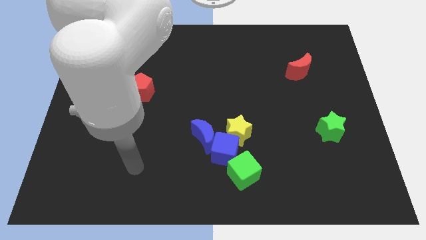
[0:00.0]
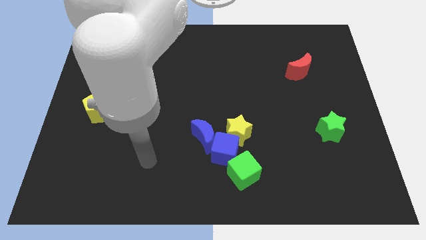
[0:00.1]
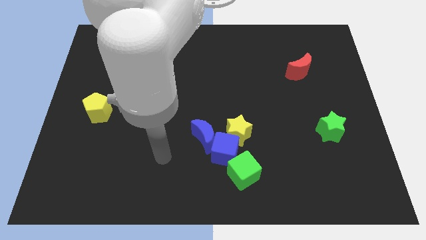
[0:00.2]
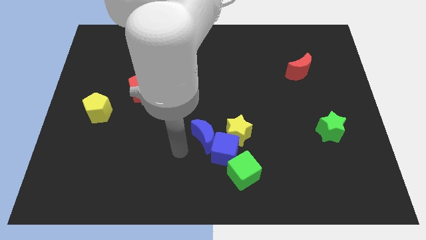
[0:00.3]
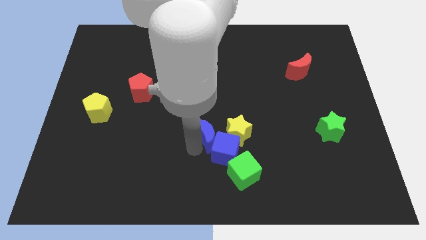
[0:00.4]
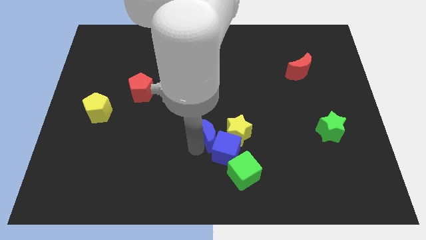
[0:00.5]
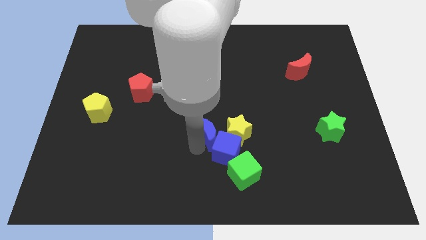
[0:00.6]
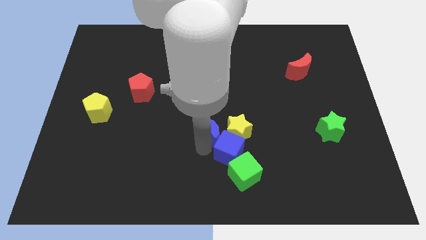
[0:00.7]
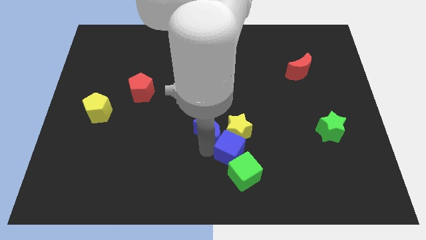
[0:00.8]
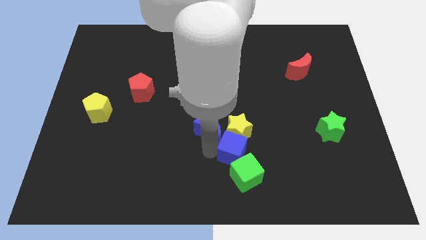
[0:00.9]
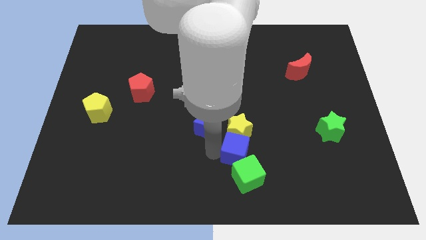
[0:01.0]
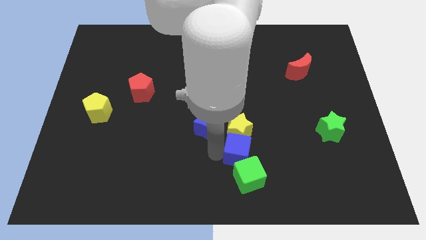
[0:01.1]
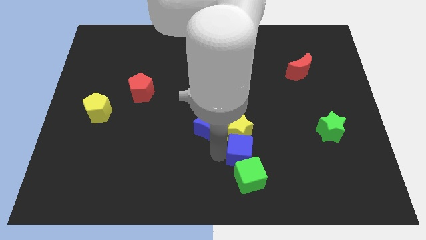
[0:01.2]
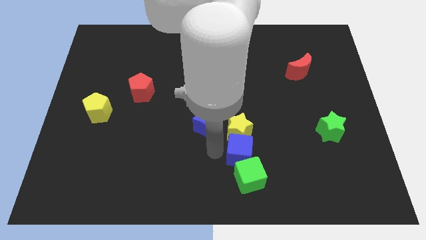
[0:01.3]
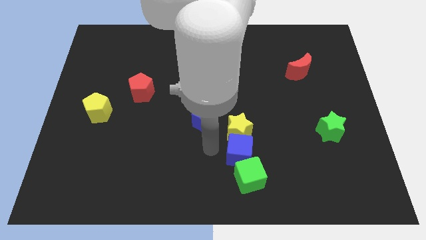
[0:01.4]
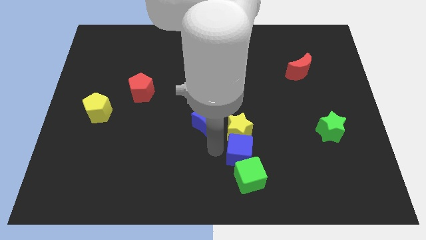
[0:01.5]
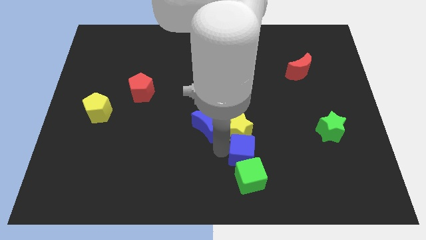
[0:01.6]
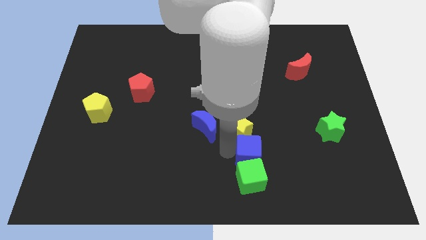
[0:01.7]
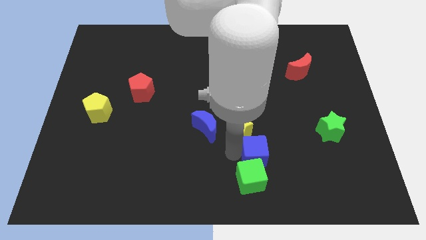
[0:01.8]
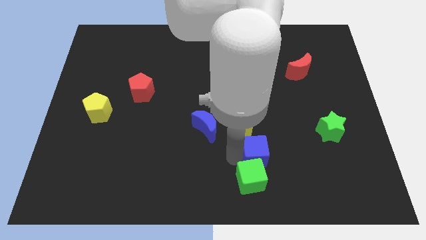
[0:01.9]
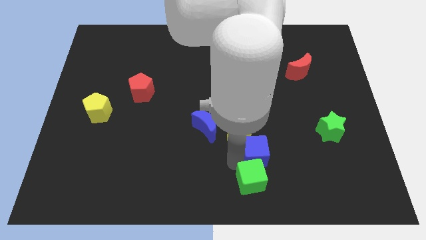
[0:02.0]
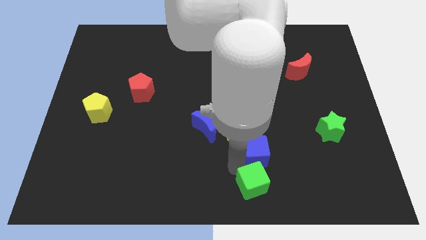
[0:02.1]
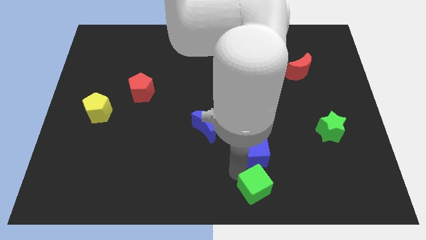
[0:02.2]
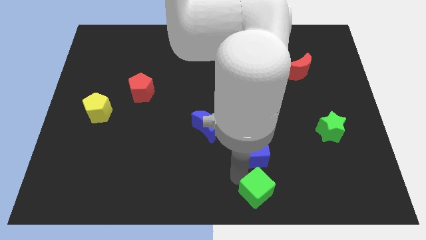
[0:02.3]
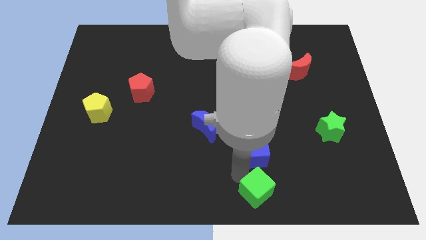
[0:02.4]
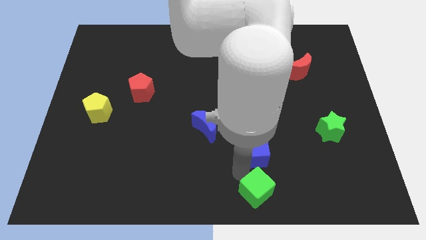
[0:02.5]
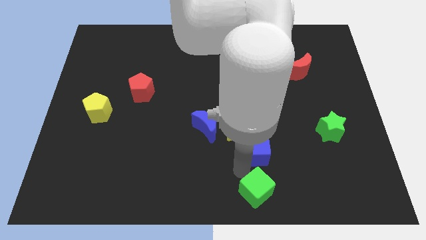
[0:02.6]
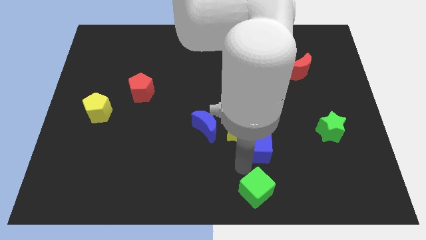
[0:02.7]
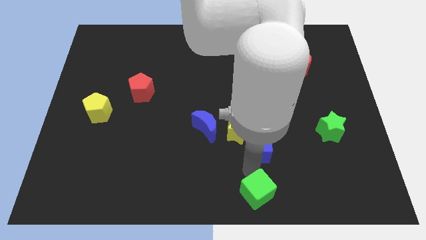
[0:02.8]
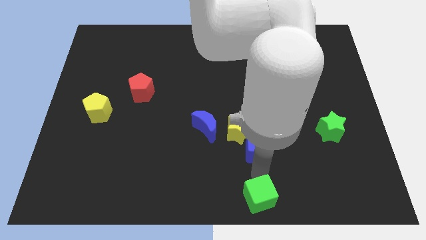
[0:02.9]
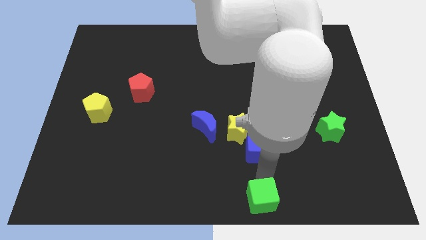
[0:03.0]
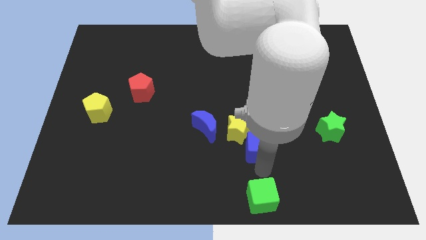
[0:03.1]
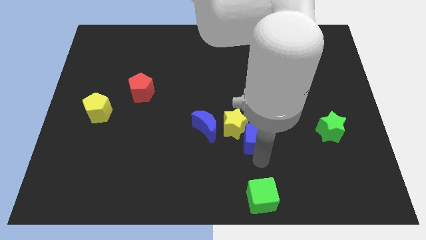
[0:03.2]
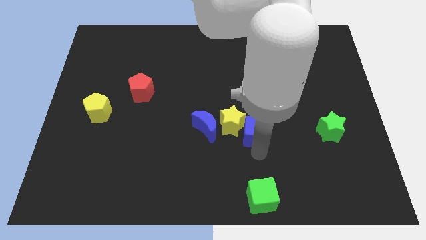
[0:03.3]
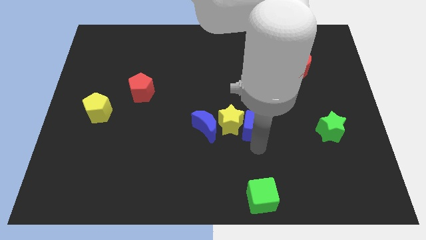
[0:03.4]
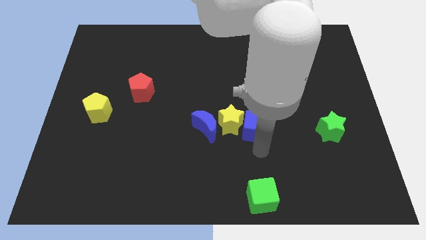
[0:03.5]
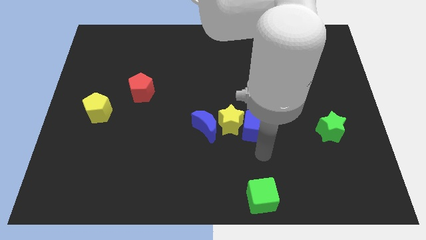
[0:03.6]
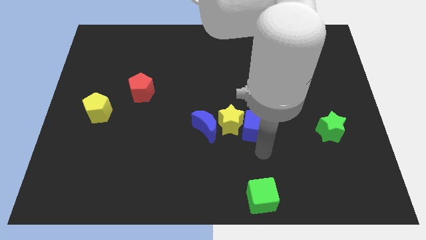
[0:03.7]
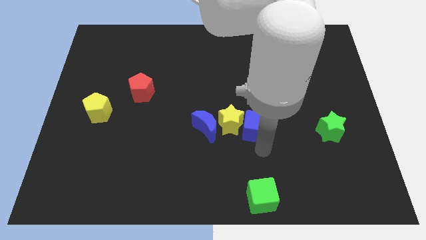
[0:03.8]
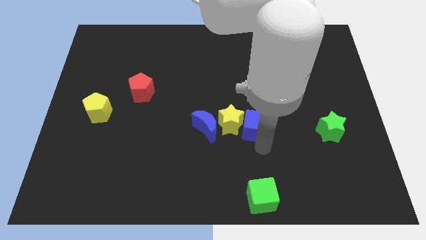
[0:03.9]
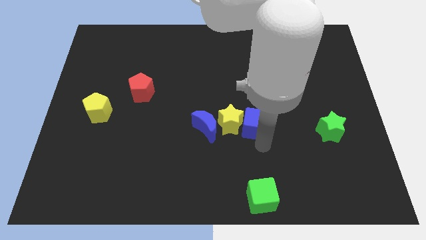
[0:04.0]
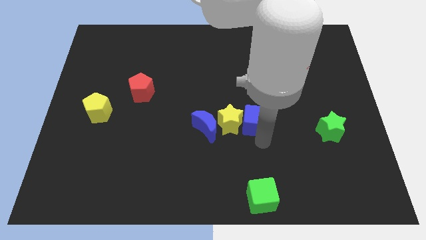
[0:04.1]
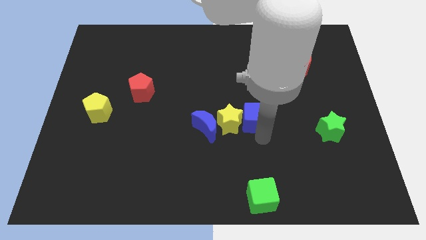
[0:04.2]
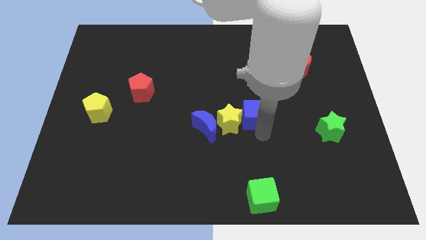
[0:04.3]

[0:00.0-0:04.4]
move the blue cube up slightly

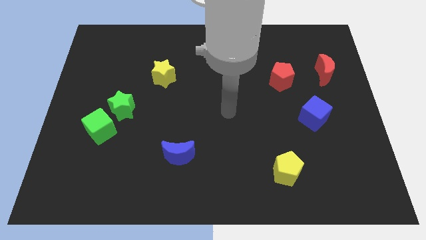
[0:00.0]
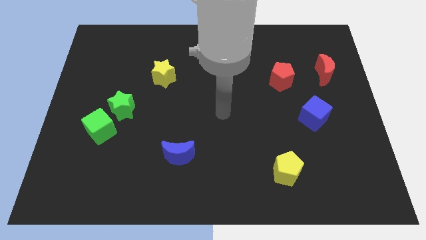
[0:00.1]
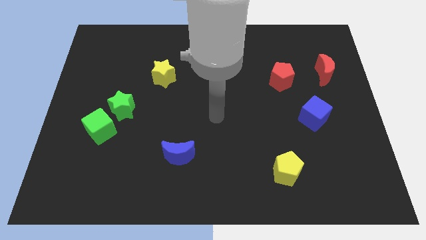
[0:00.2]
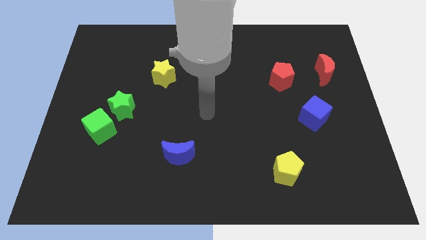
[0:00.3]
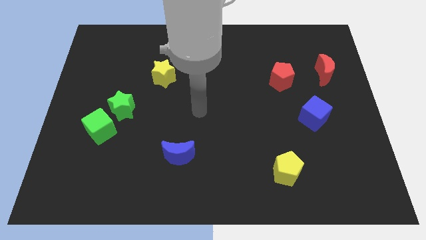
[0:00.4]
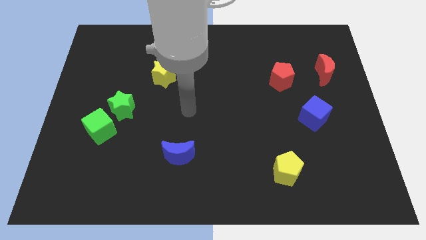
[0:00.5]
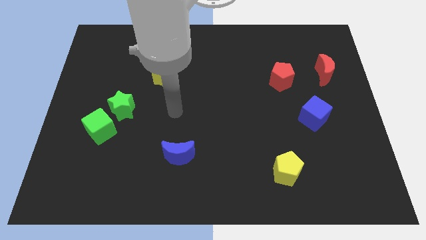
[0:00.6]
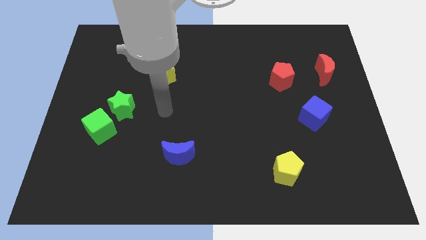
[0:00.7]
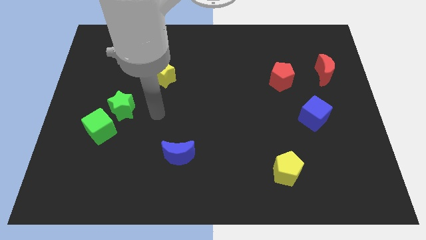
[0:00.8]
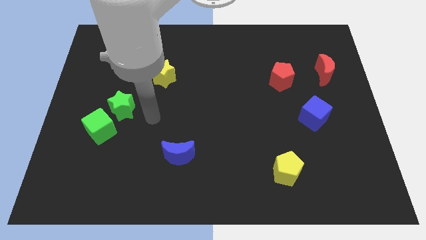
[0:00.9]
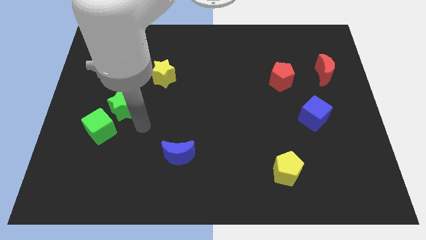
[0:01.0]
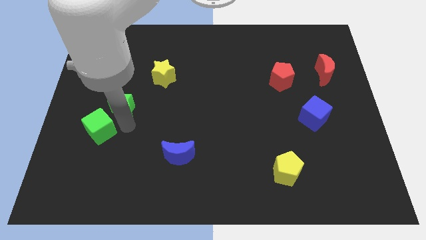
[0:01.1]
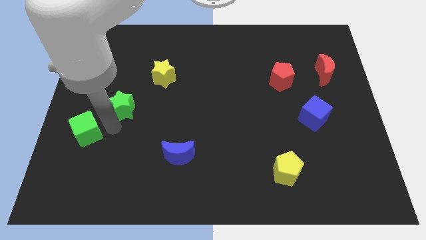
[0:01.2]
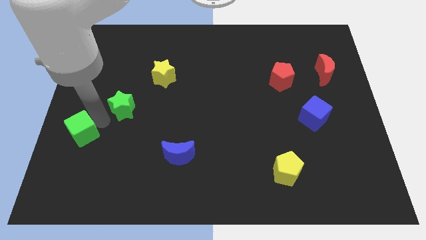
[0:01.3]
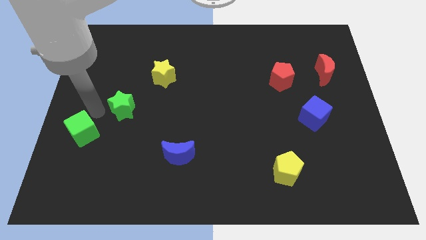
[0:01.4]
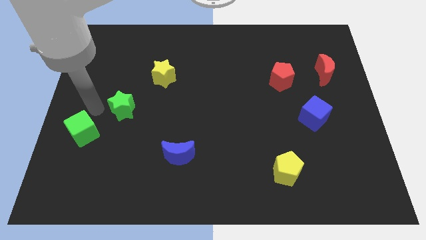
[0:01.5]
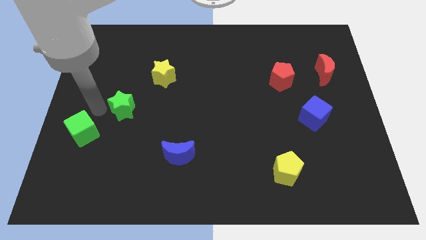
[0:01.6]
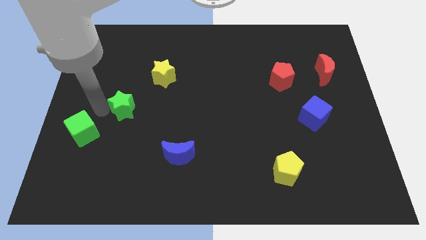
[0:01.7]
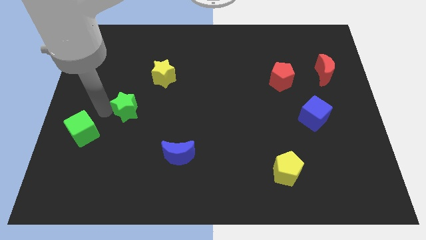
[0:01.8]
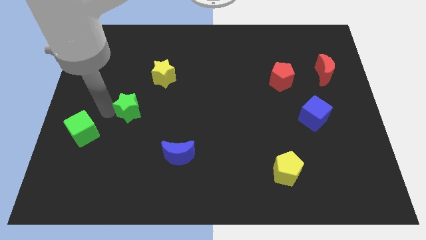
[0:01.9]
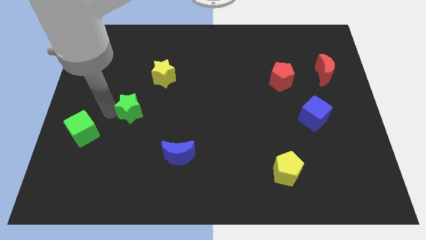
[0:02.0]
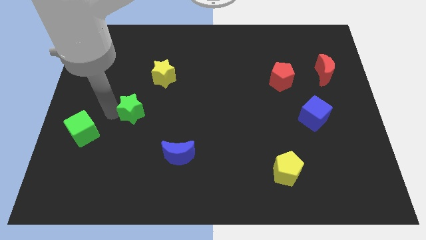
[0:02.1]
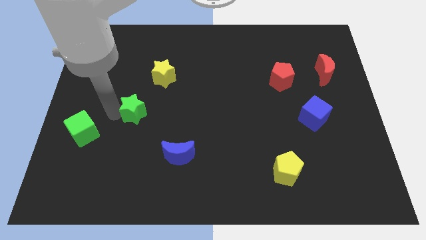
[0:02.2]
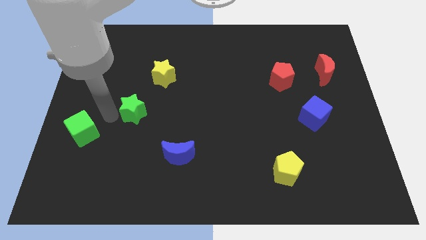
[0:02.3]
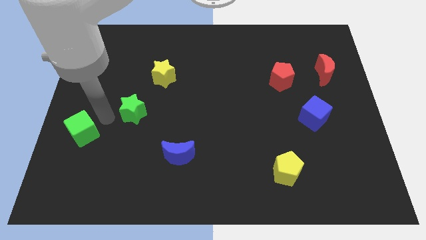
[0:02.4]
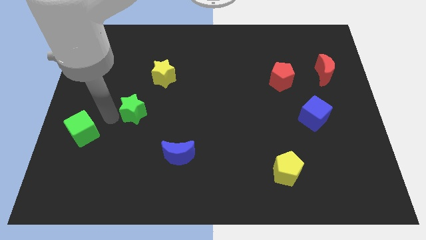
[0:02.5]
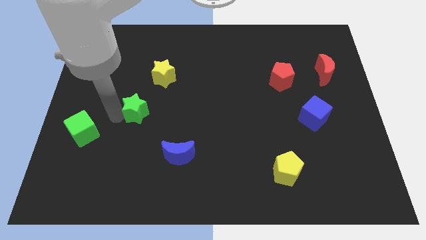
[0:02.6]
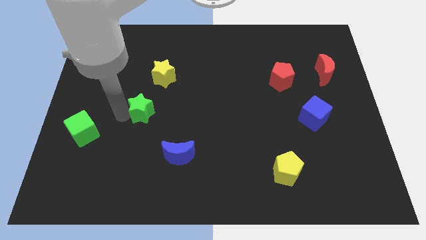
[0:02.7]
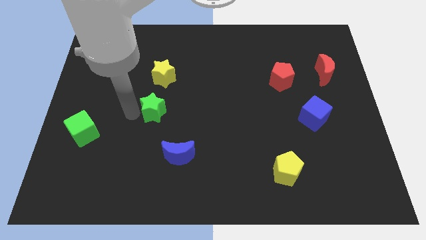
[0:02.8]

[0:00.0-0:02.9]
slide the green star somewhat right

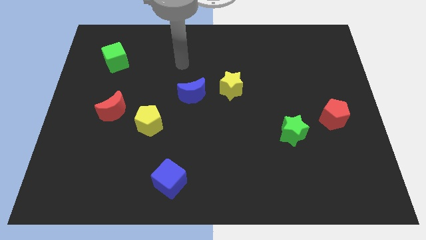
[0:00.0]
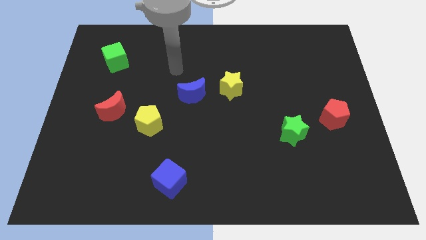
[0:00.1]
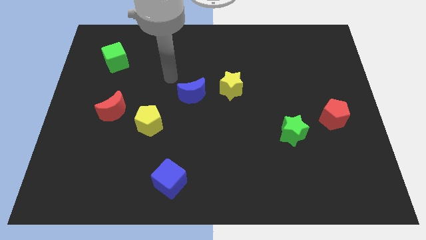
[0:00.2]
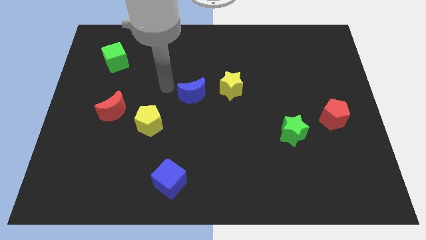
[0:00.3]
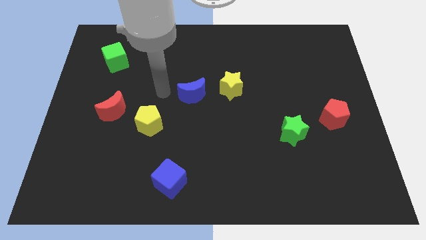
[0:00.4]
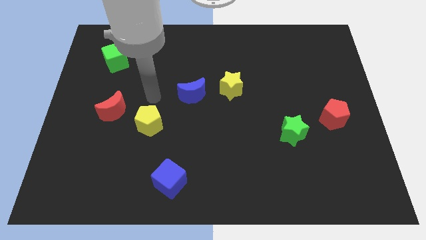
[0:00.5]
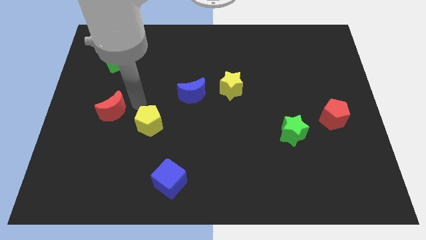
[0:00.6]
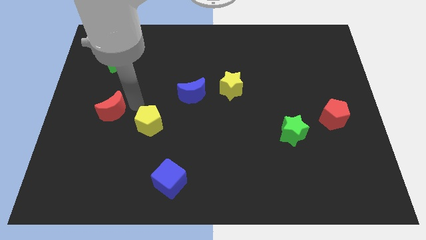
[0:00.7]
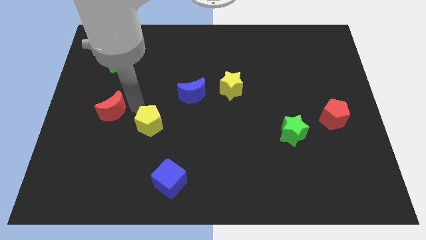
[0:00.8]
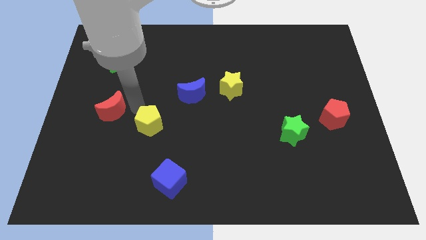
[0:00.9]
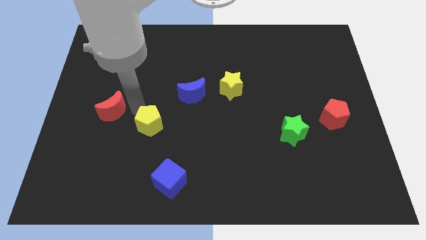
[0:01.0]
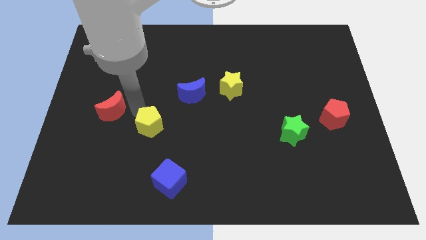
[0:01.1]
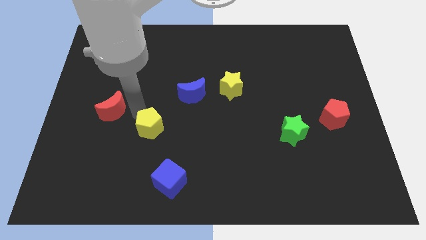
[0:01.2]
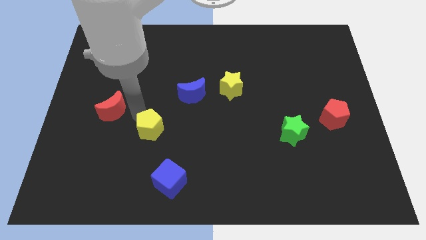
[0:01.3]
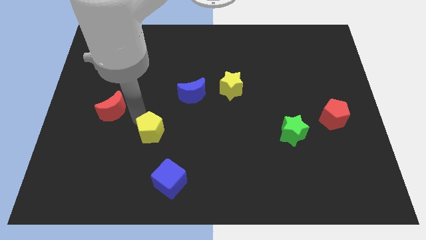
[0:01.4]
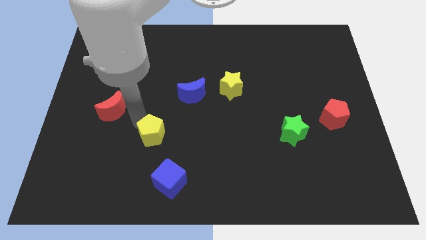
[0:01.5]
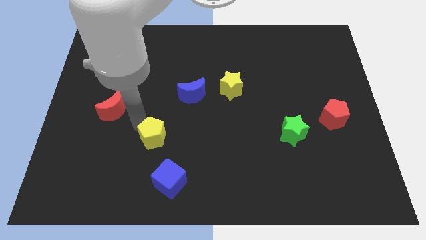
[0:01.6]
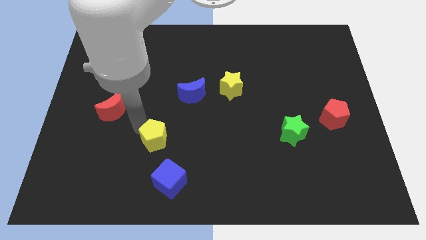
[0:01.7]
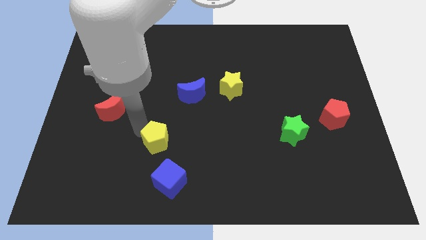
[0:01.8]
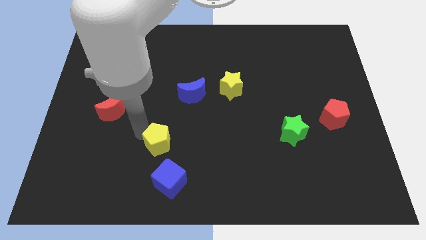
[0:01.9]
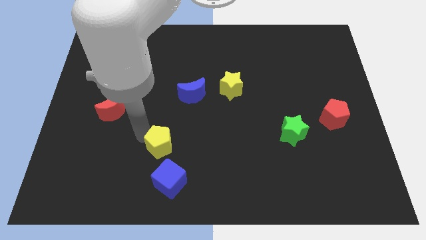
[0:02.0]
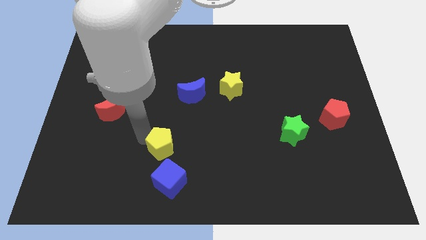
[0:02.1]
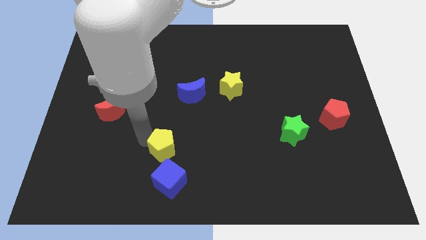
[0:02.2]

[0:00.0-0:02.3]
slightly slide the yellow pentagon downwards and to the right
